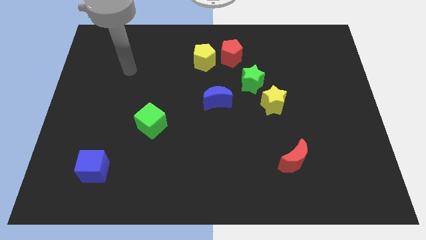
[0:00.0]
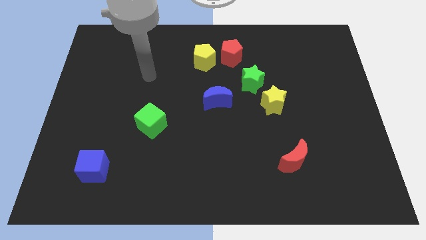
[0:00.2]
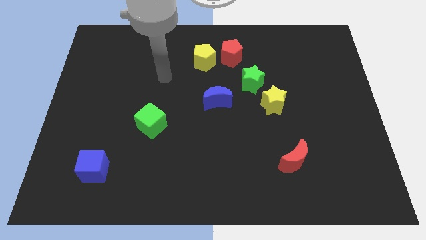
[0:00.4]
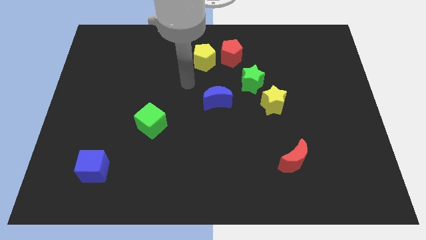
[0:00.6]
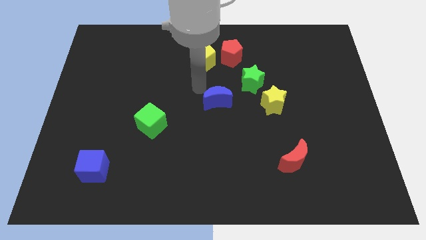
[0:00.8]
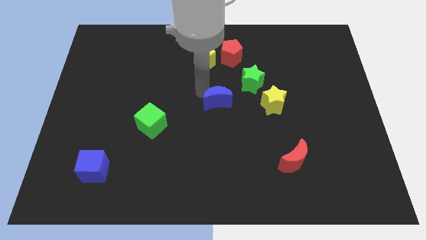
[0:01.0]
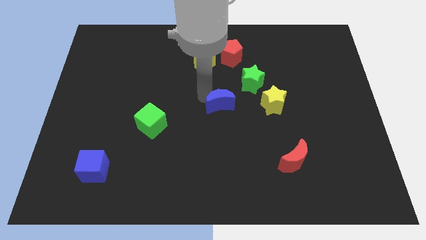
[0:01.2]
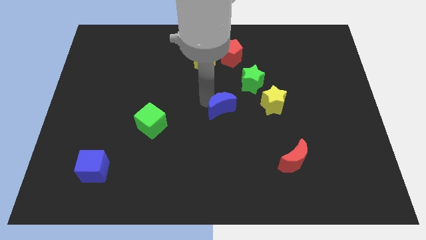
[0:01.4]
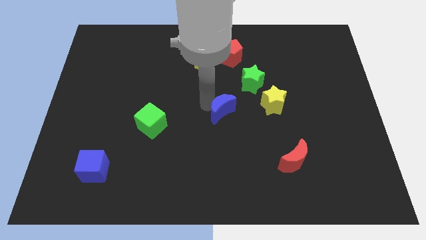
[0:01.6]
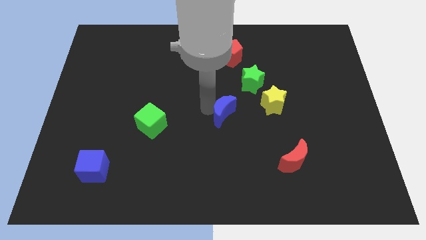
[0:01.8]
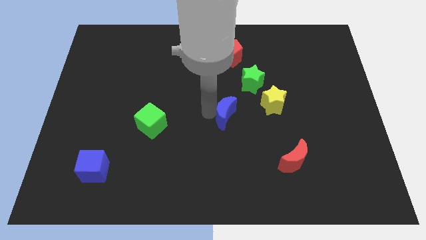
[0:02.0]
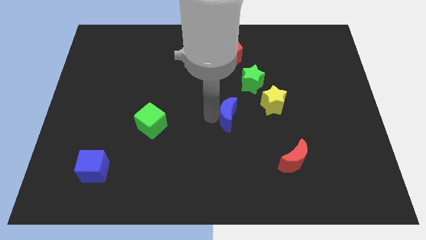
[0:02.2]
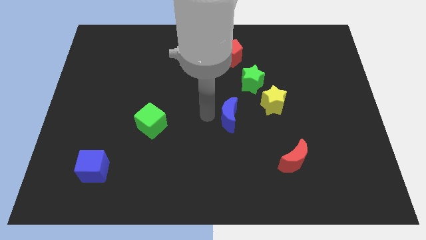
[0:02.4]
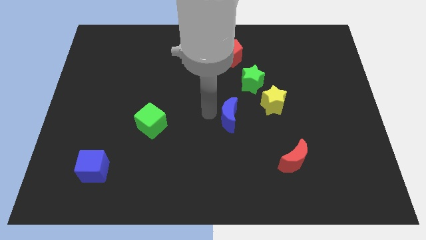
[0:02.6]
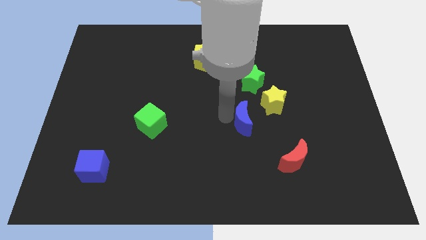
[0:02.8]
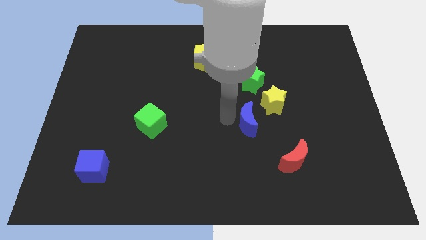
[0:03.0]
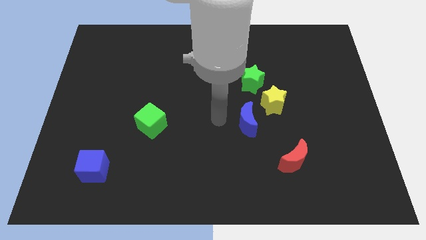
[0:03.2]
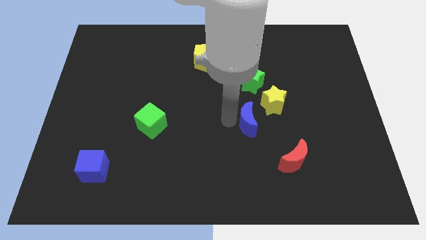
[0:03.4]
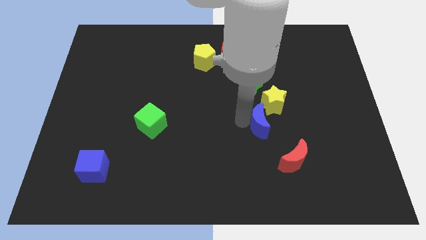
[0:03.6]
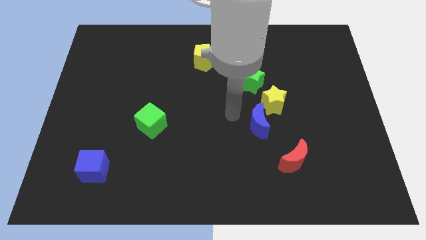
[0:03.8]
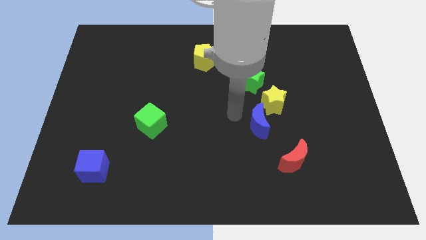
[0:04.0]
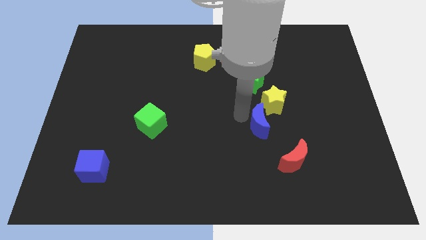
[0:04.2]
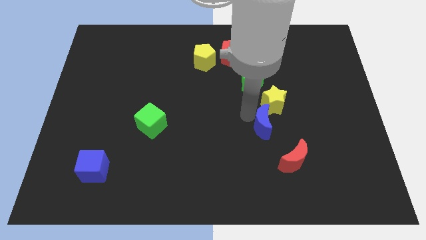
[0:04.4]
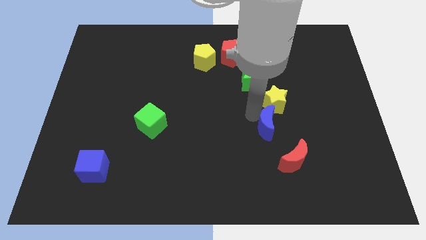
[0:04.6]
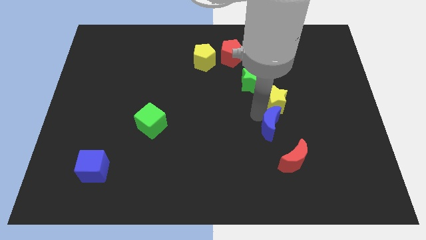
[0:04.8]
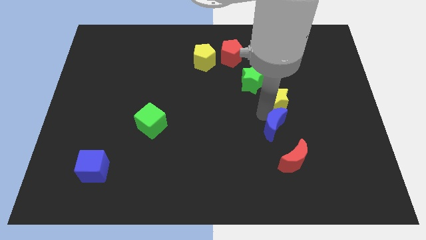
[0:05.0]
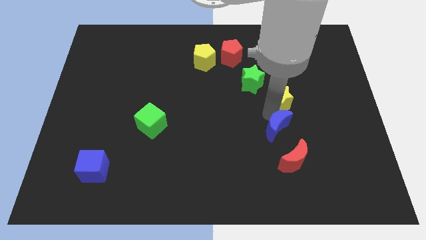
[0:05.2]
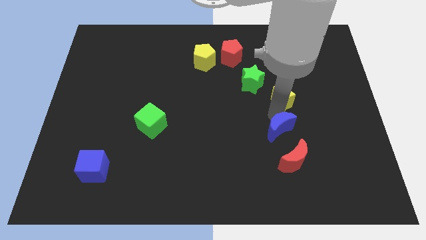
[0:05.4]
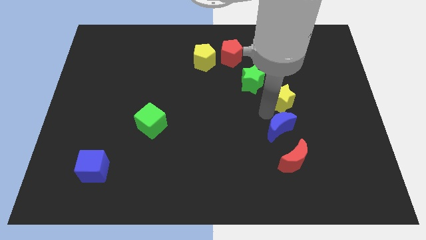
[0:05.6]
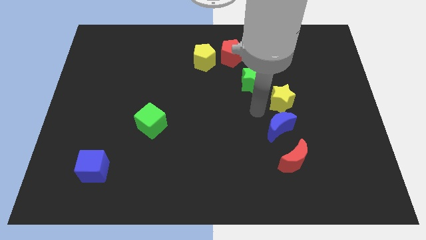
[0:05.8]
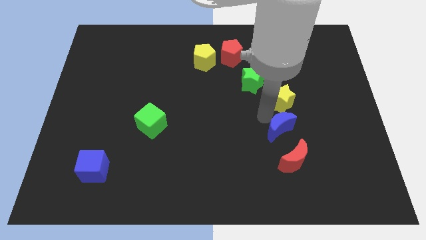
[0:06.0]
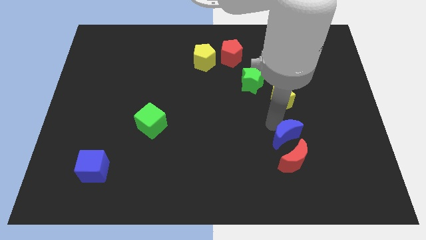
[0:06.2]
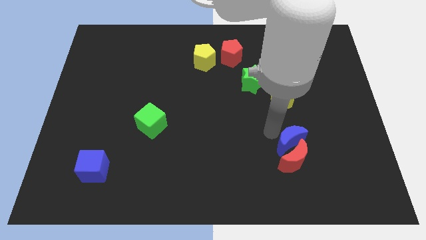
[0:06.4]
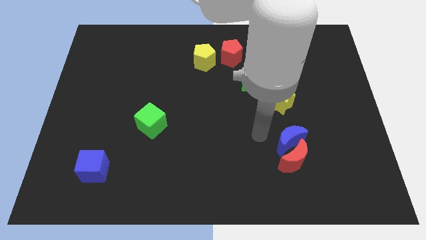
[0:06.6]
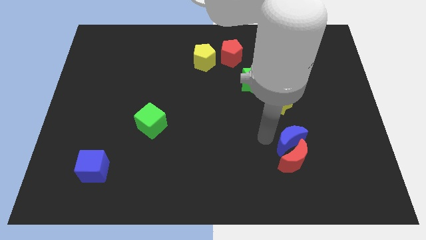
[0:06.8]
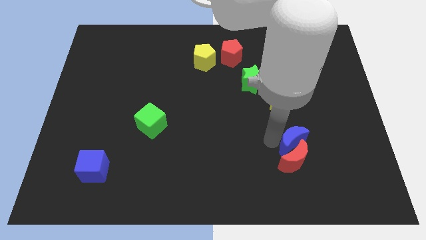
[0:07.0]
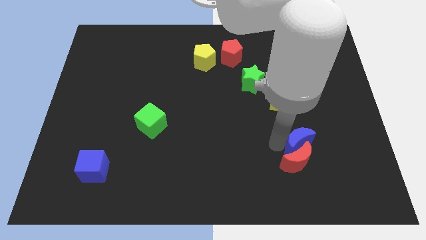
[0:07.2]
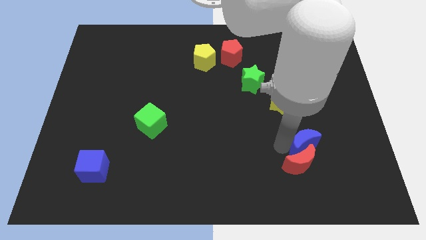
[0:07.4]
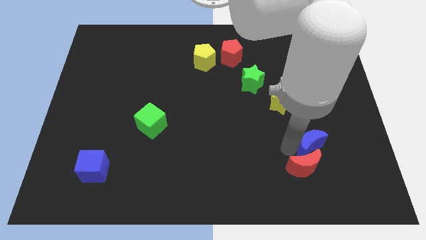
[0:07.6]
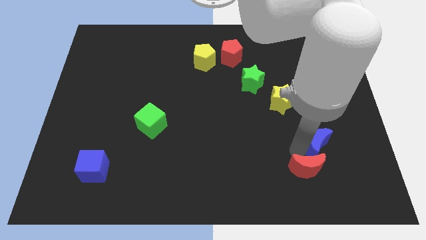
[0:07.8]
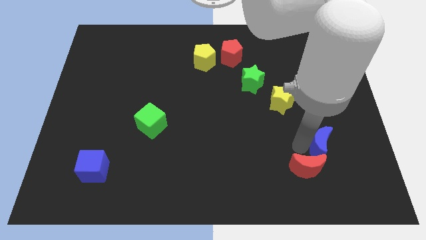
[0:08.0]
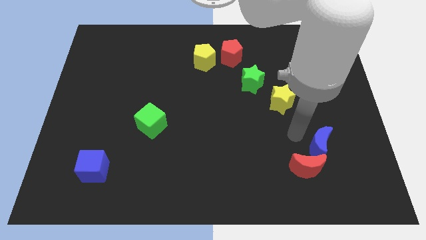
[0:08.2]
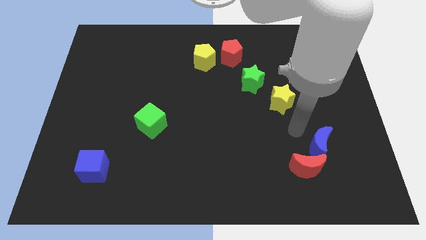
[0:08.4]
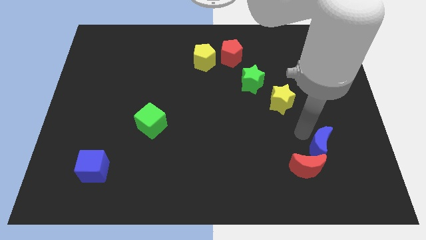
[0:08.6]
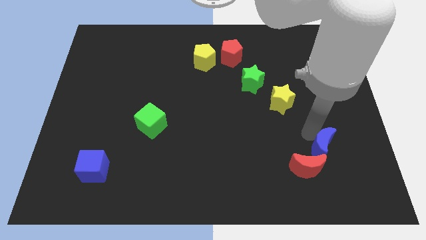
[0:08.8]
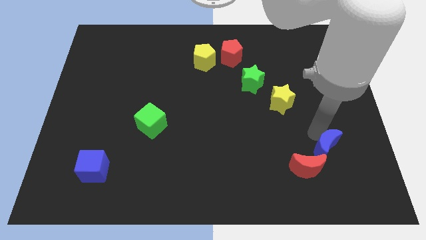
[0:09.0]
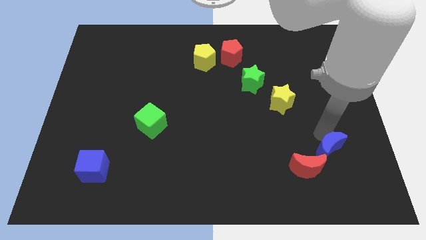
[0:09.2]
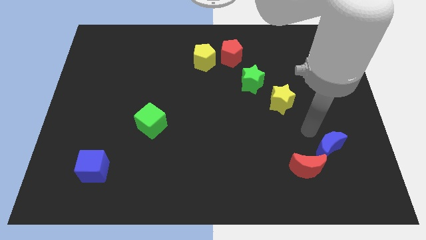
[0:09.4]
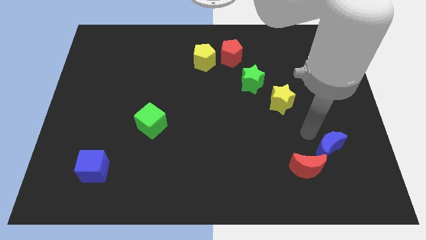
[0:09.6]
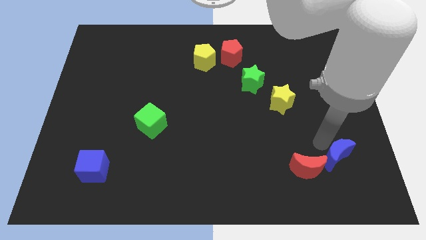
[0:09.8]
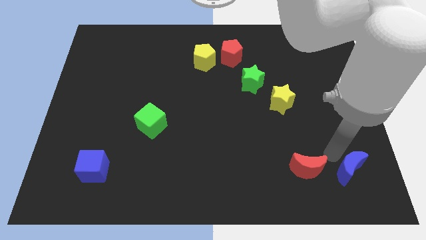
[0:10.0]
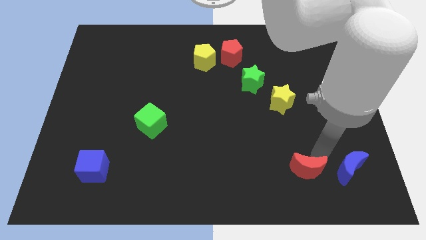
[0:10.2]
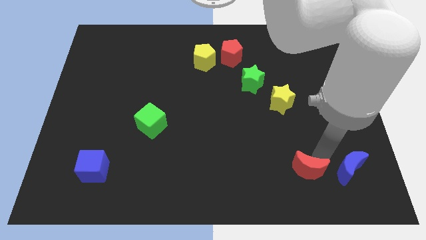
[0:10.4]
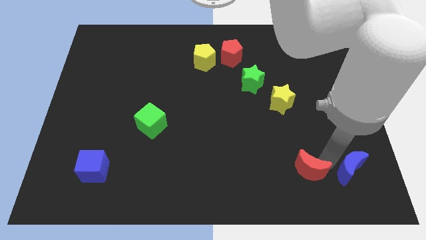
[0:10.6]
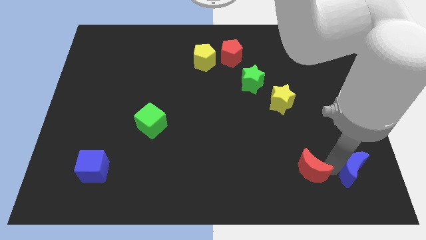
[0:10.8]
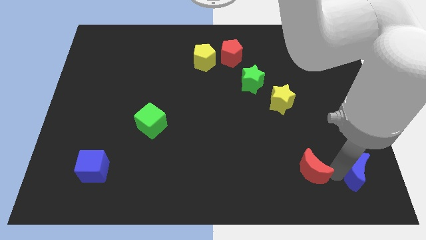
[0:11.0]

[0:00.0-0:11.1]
put the blue moon to the bottom right of the board
